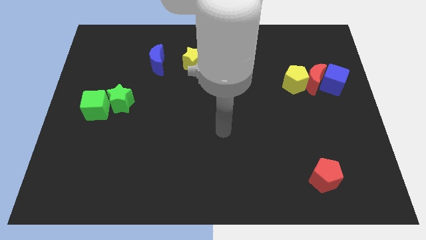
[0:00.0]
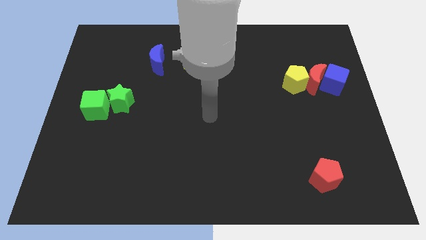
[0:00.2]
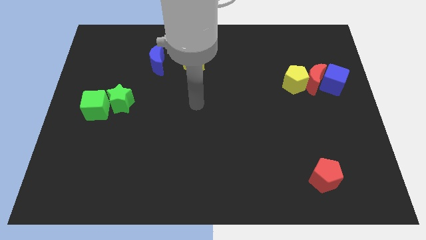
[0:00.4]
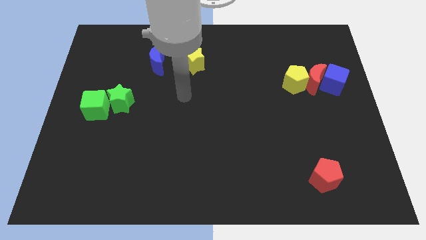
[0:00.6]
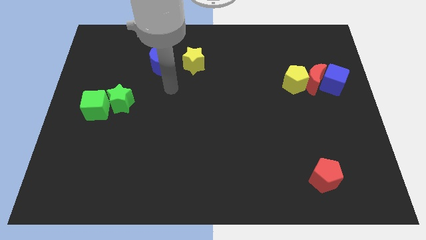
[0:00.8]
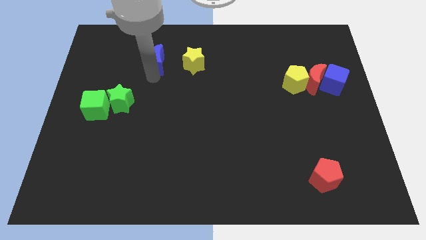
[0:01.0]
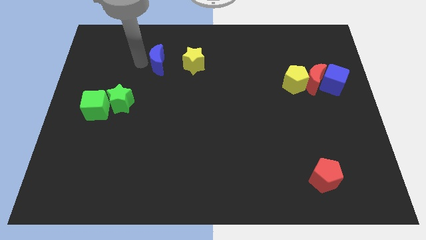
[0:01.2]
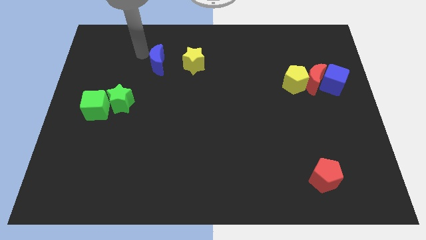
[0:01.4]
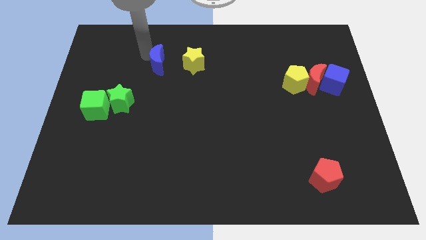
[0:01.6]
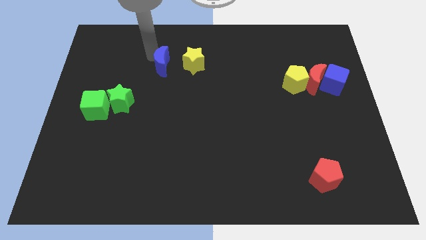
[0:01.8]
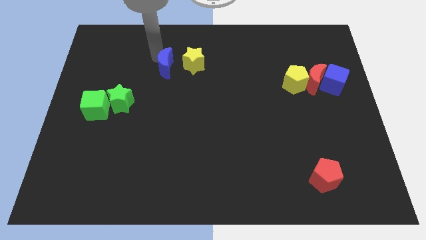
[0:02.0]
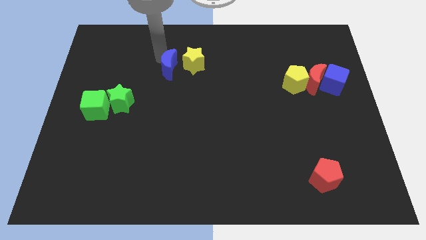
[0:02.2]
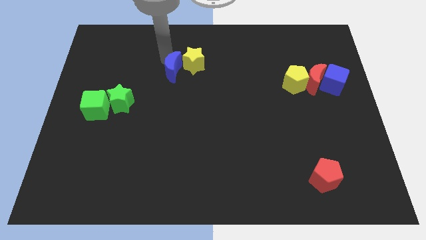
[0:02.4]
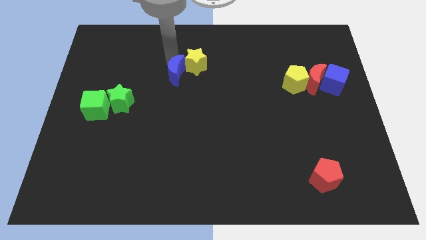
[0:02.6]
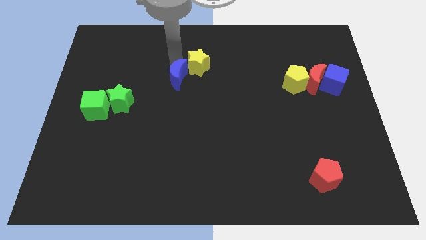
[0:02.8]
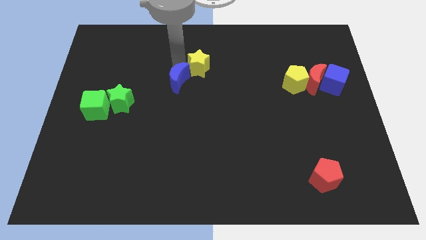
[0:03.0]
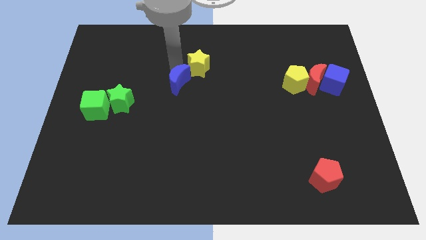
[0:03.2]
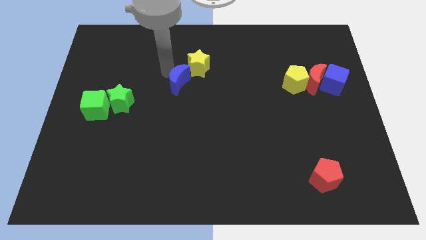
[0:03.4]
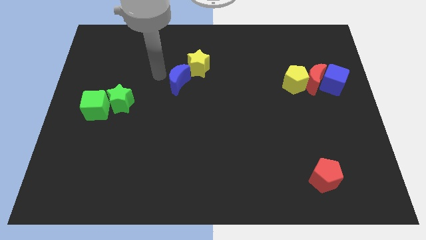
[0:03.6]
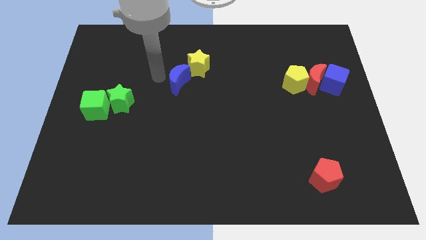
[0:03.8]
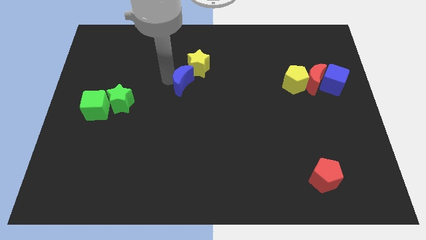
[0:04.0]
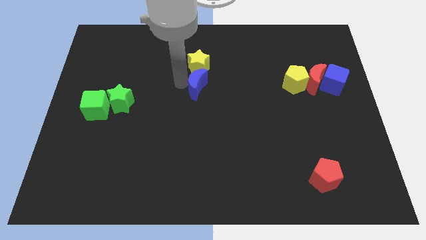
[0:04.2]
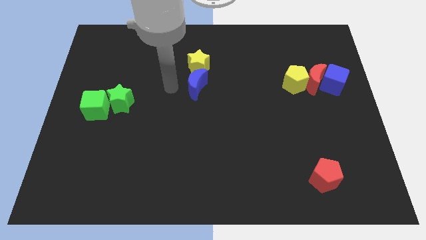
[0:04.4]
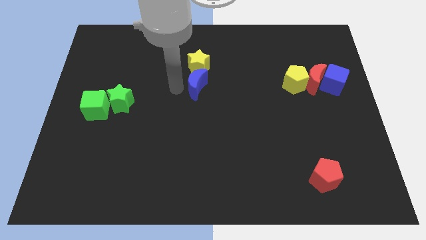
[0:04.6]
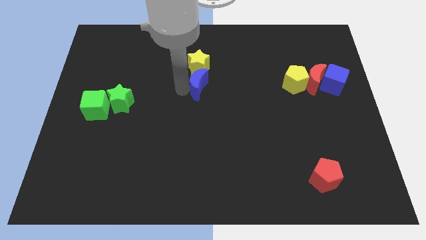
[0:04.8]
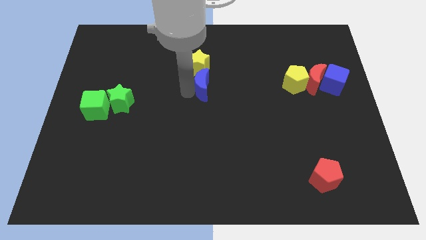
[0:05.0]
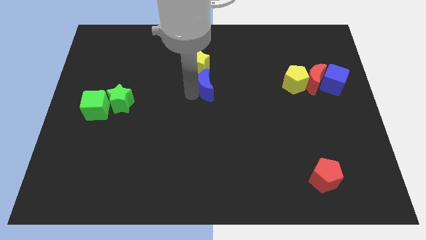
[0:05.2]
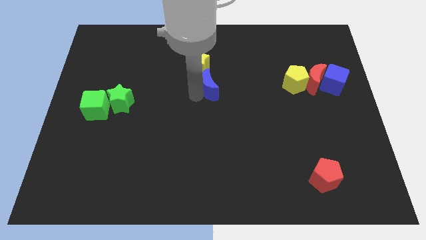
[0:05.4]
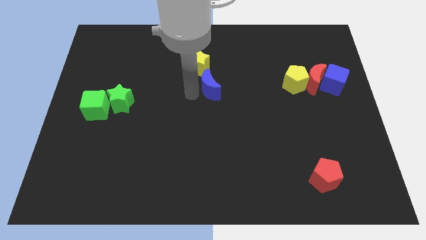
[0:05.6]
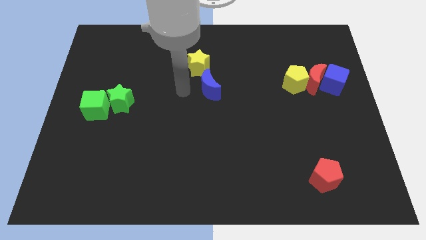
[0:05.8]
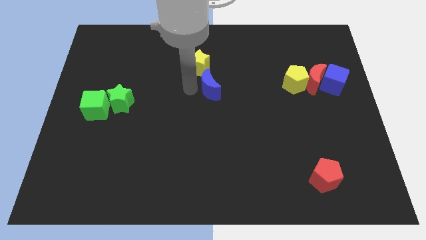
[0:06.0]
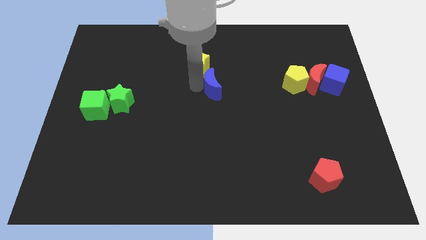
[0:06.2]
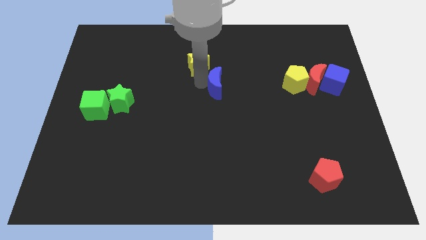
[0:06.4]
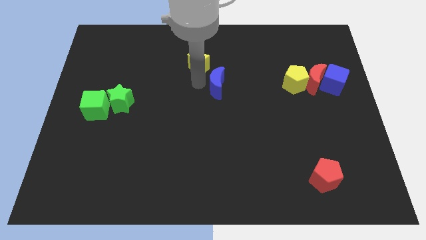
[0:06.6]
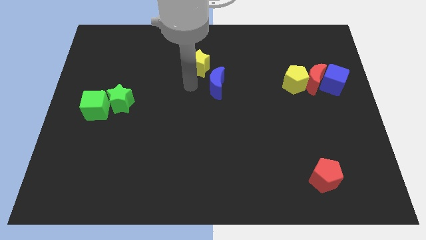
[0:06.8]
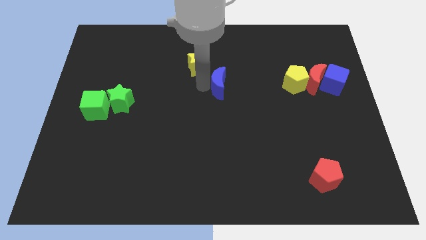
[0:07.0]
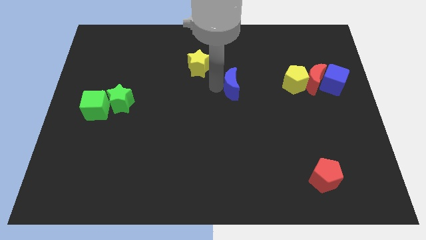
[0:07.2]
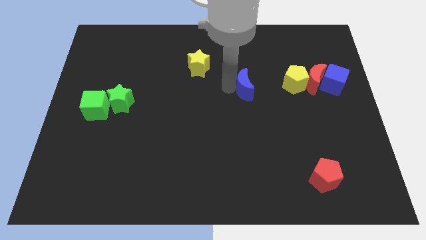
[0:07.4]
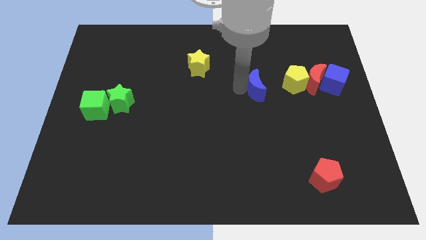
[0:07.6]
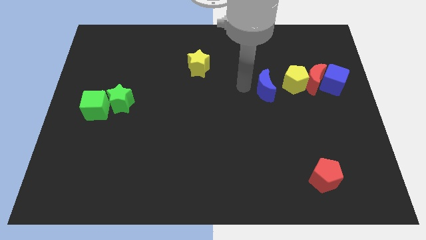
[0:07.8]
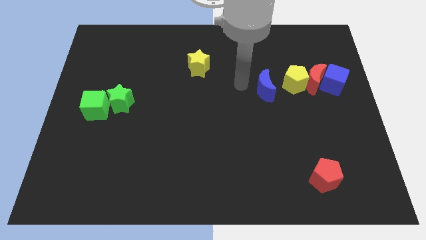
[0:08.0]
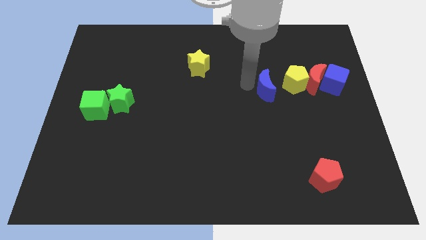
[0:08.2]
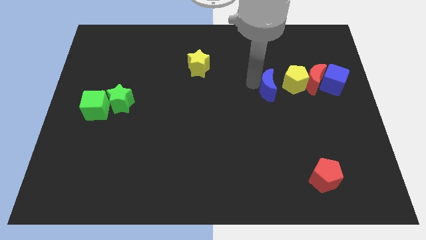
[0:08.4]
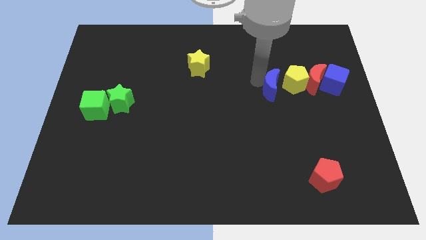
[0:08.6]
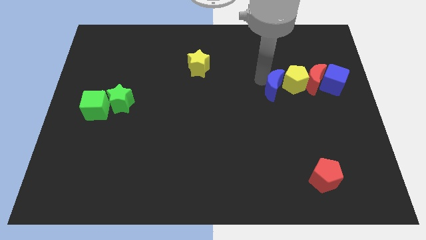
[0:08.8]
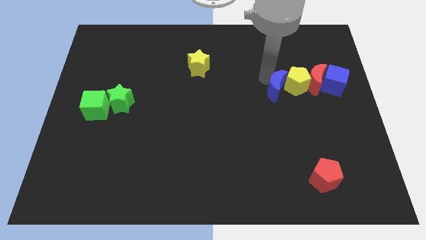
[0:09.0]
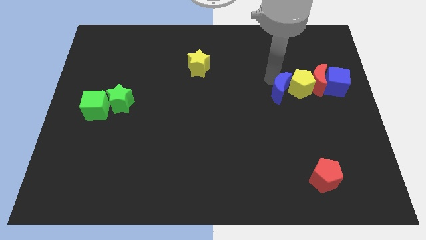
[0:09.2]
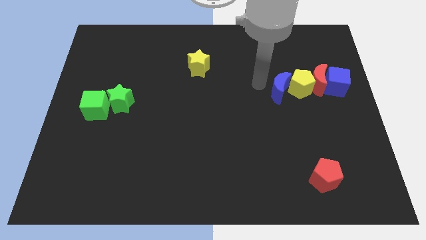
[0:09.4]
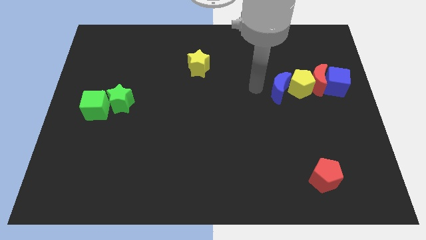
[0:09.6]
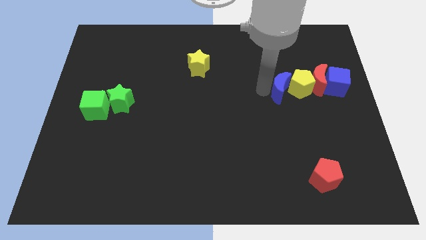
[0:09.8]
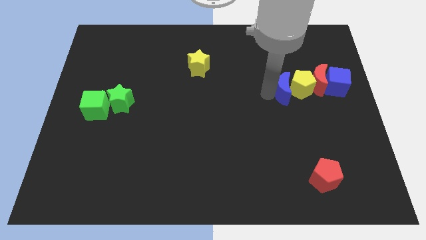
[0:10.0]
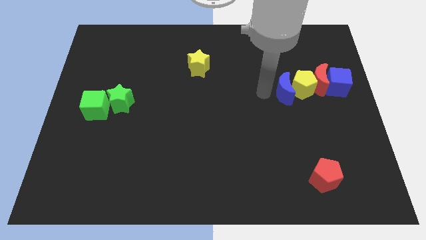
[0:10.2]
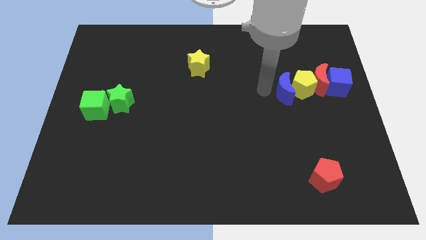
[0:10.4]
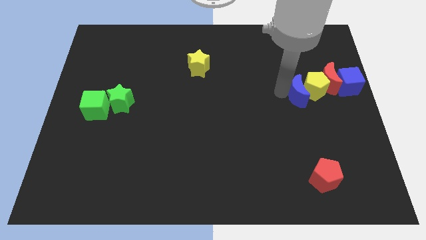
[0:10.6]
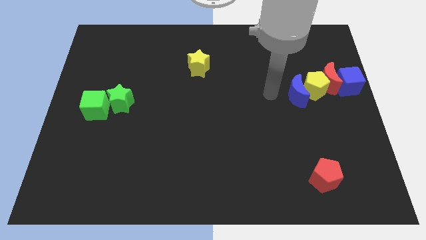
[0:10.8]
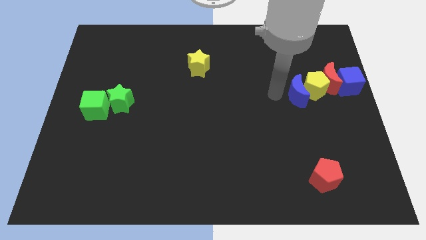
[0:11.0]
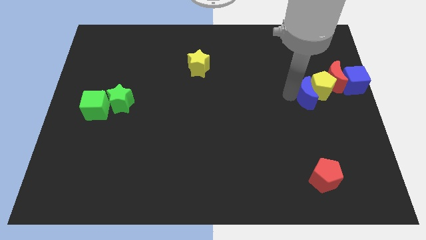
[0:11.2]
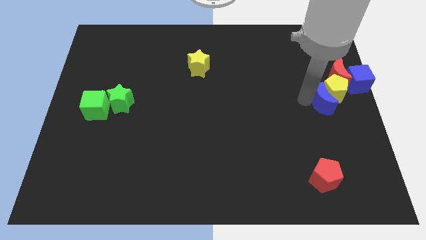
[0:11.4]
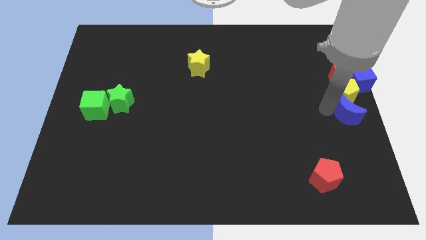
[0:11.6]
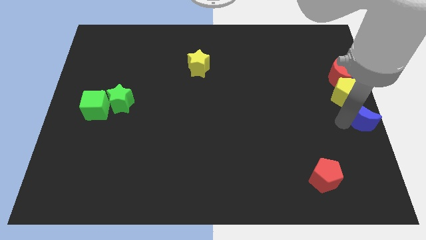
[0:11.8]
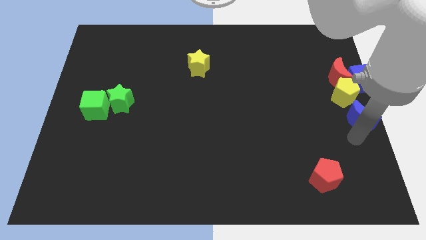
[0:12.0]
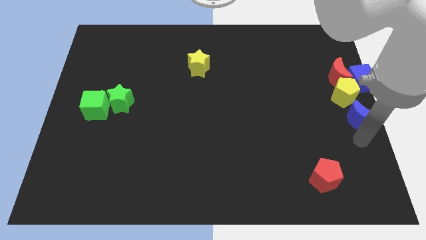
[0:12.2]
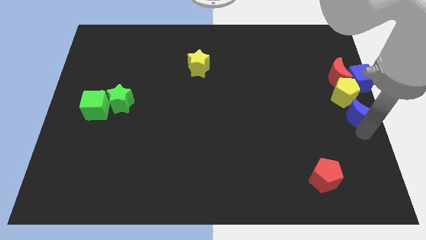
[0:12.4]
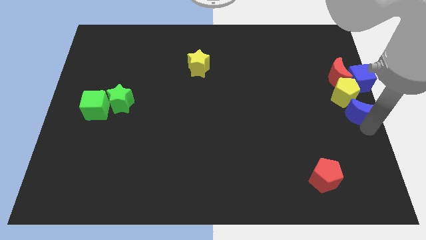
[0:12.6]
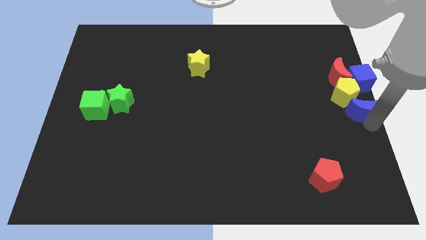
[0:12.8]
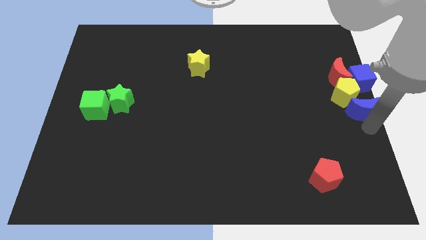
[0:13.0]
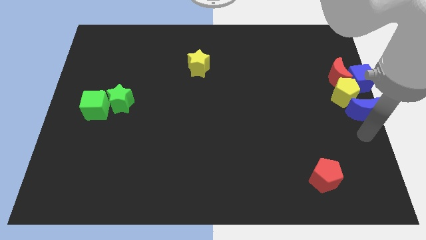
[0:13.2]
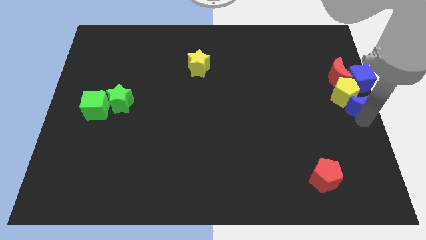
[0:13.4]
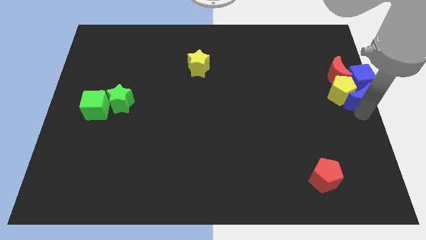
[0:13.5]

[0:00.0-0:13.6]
push the blue moon next to the blue cube
